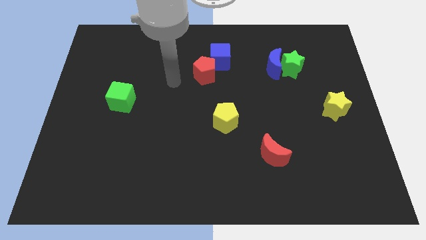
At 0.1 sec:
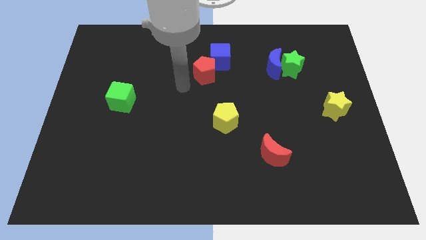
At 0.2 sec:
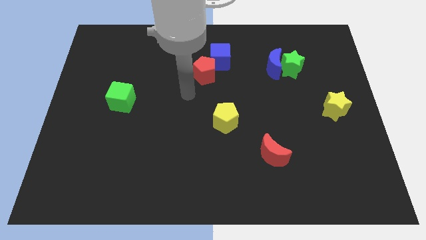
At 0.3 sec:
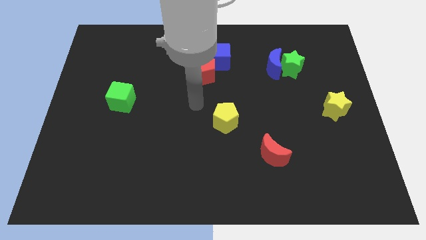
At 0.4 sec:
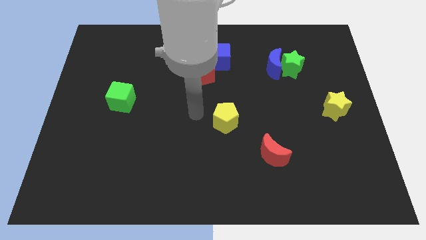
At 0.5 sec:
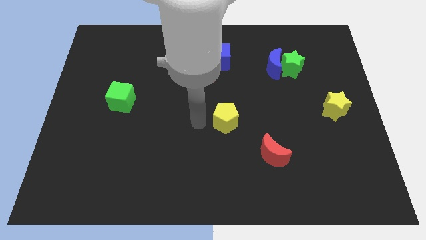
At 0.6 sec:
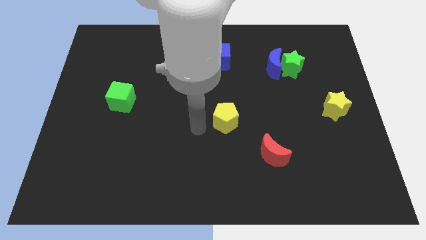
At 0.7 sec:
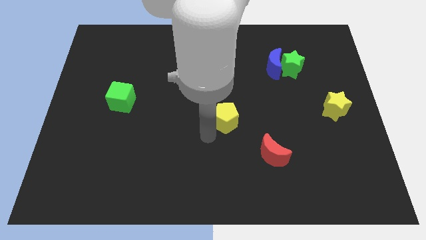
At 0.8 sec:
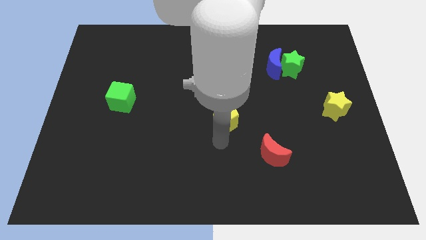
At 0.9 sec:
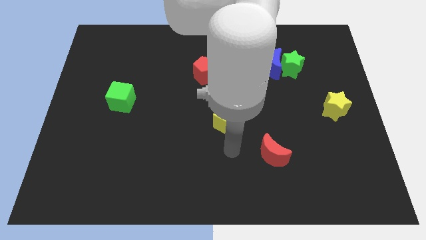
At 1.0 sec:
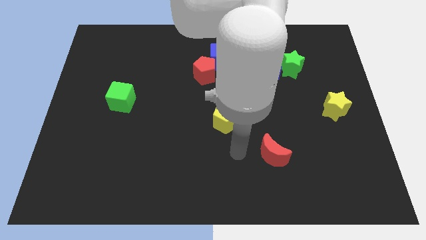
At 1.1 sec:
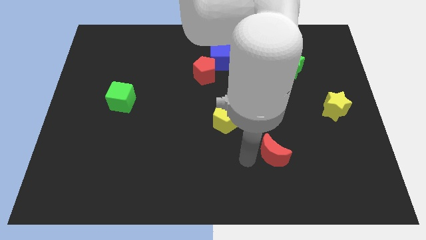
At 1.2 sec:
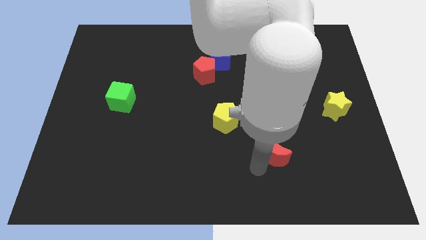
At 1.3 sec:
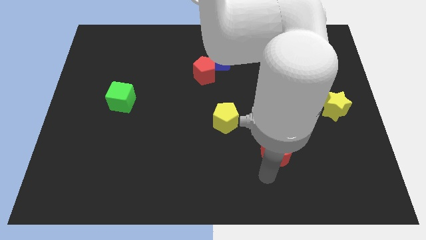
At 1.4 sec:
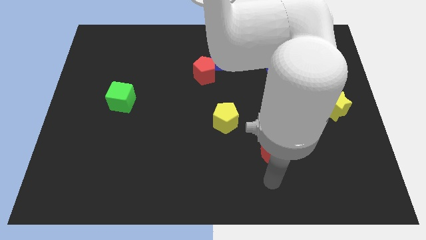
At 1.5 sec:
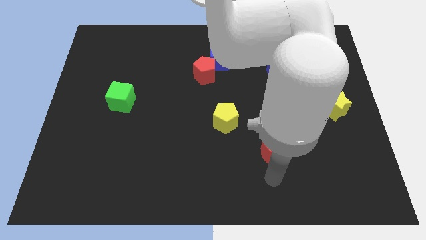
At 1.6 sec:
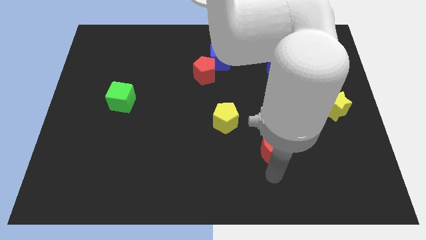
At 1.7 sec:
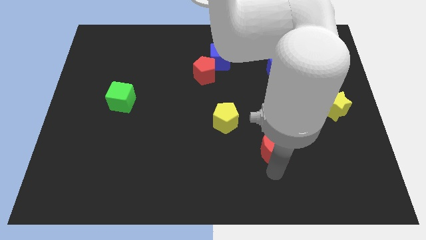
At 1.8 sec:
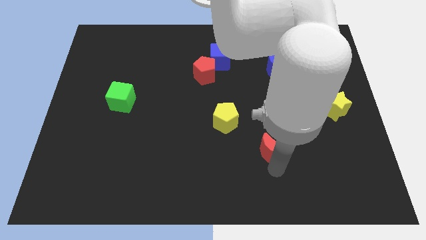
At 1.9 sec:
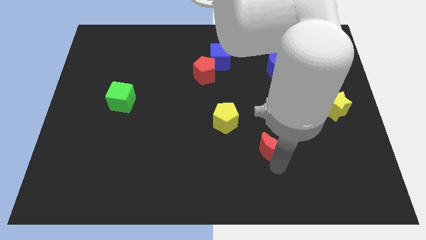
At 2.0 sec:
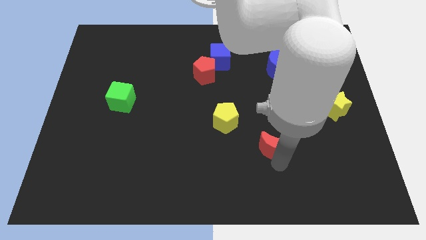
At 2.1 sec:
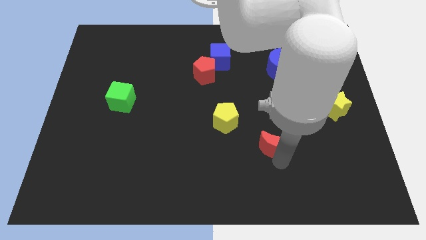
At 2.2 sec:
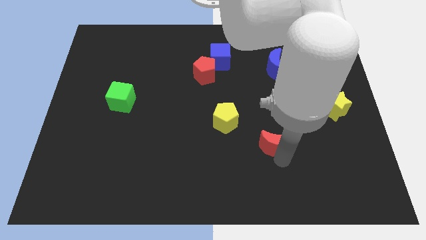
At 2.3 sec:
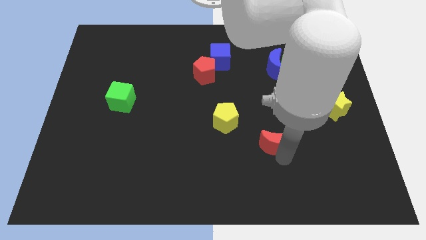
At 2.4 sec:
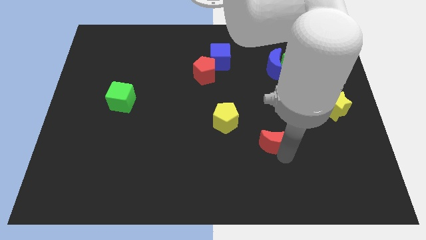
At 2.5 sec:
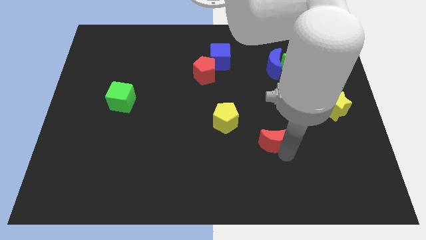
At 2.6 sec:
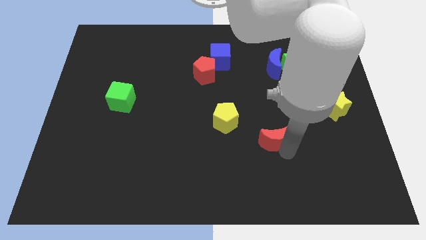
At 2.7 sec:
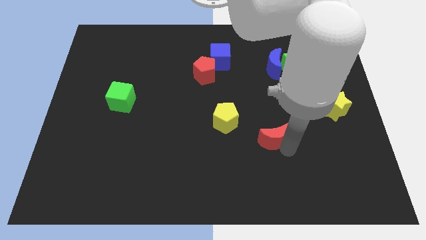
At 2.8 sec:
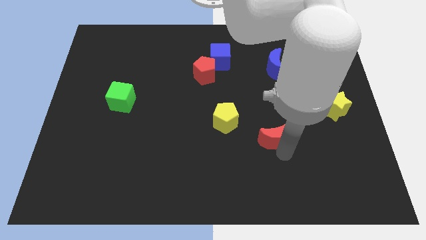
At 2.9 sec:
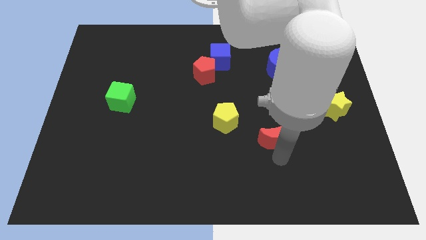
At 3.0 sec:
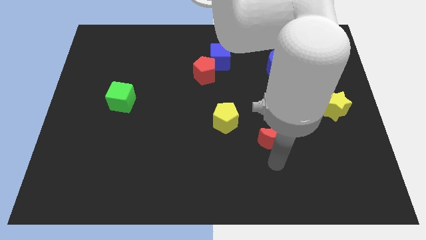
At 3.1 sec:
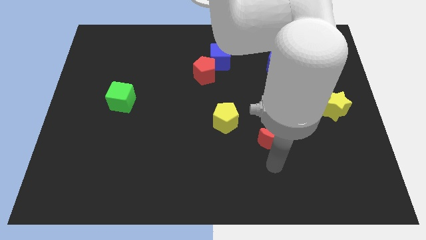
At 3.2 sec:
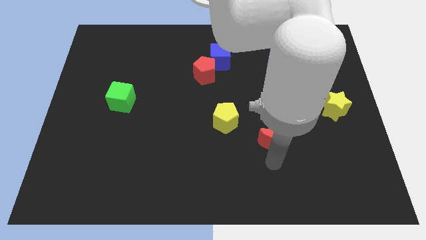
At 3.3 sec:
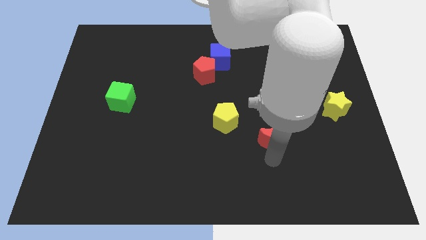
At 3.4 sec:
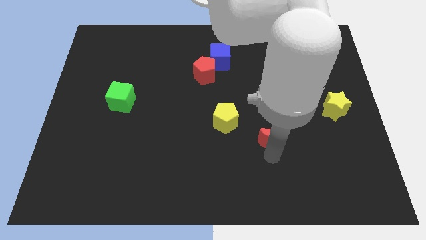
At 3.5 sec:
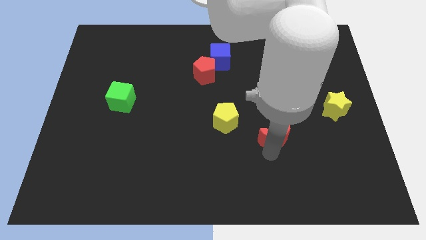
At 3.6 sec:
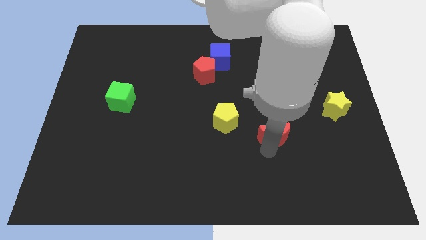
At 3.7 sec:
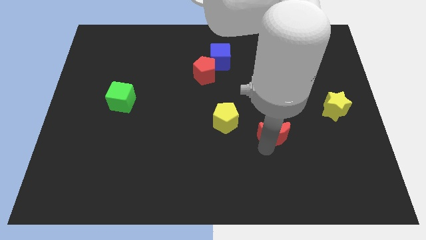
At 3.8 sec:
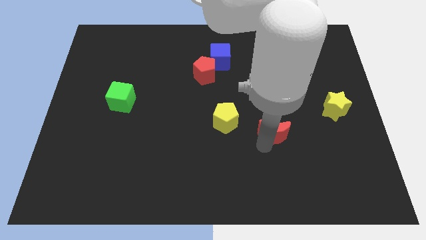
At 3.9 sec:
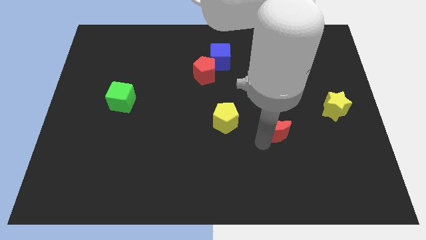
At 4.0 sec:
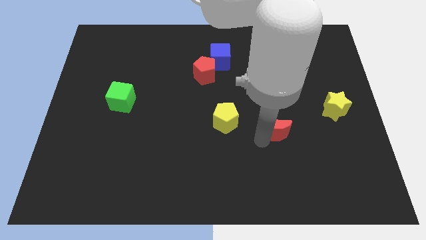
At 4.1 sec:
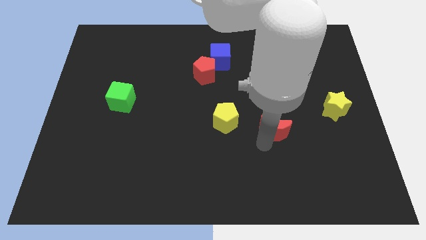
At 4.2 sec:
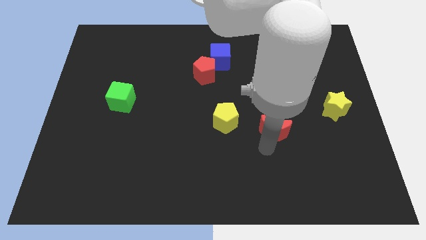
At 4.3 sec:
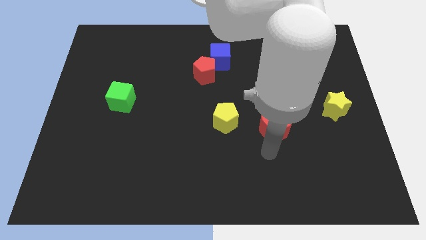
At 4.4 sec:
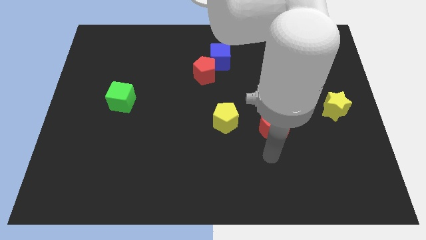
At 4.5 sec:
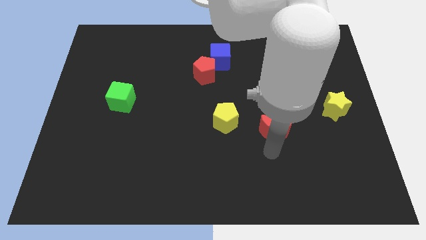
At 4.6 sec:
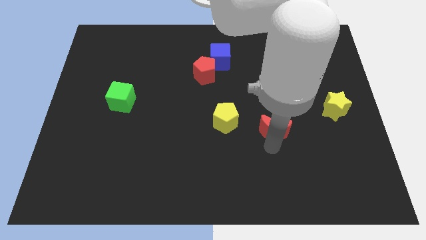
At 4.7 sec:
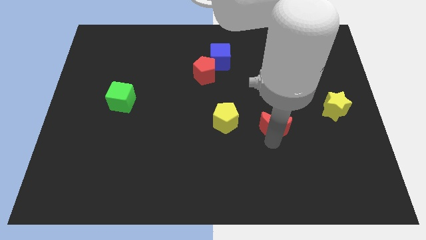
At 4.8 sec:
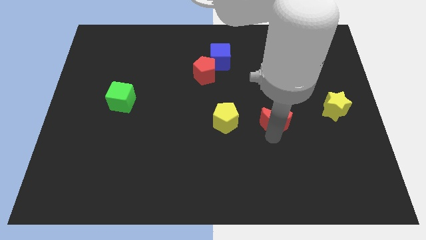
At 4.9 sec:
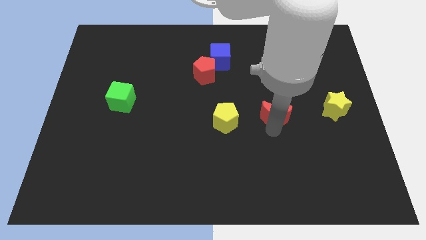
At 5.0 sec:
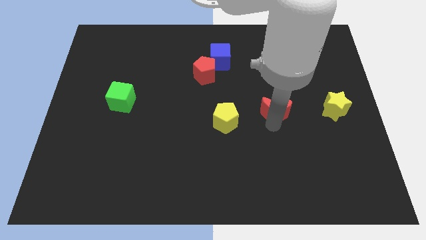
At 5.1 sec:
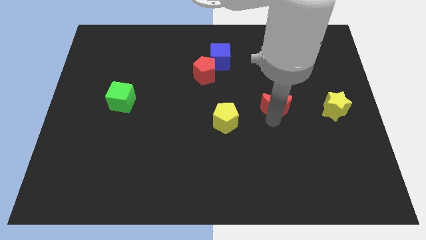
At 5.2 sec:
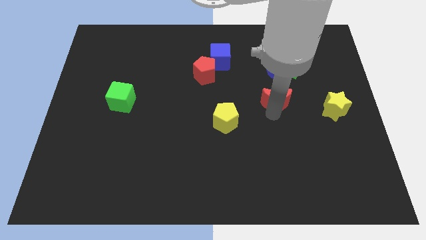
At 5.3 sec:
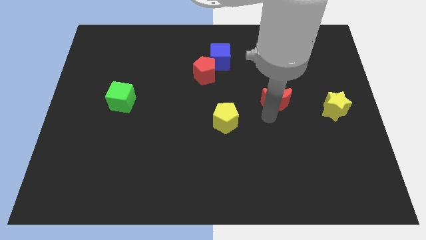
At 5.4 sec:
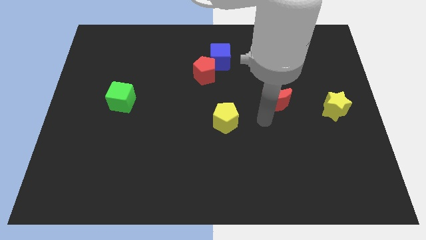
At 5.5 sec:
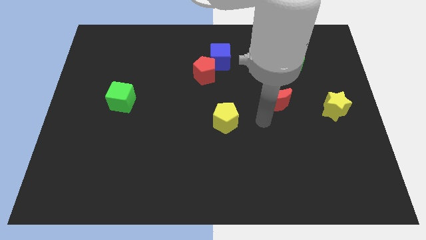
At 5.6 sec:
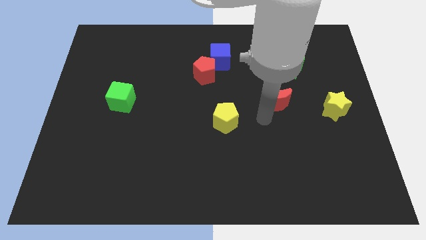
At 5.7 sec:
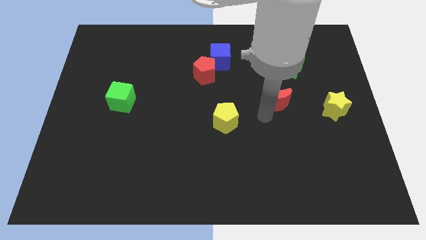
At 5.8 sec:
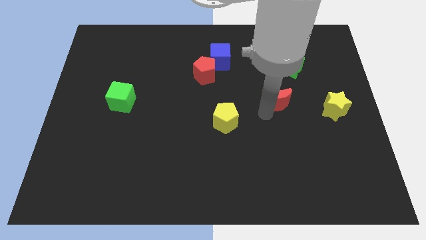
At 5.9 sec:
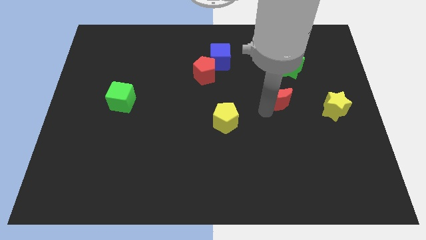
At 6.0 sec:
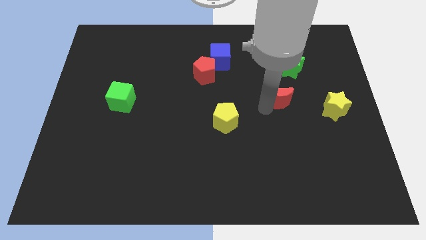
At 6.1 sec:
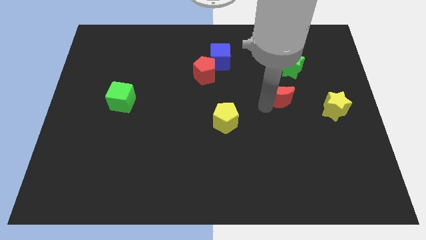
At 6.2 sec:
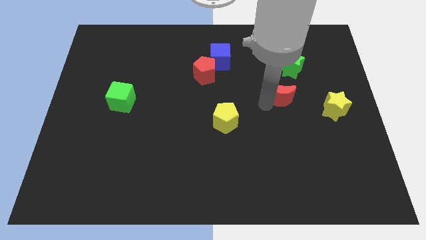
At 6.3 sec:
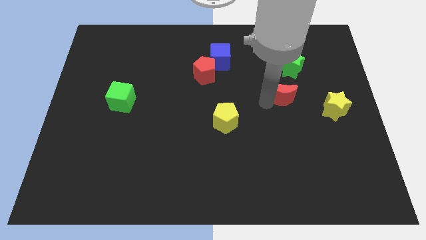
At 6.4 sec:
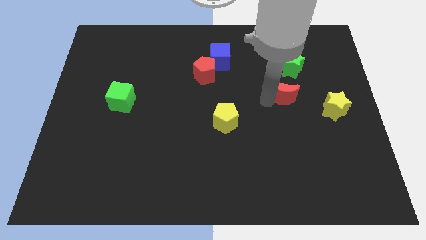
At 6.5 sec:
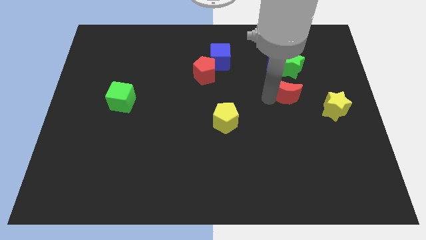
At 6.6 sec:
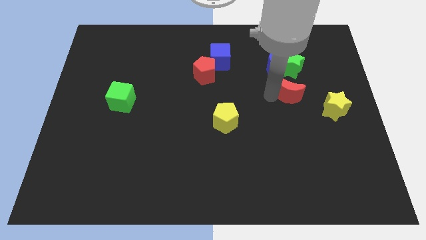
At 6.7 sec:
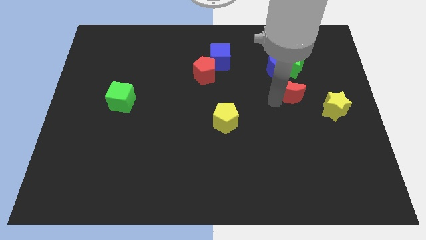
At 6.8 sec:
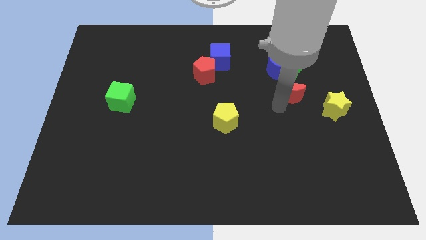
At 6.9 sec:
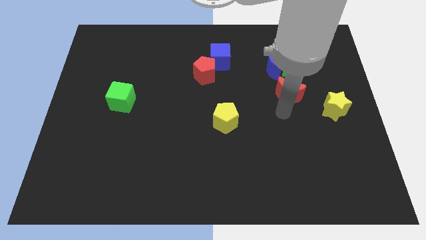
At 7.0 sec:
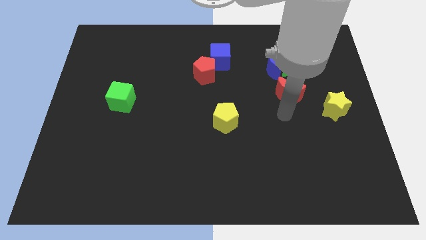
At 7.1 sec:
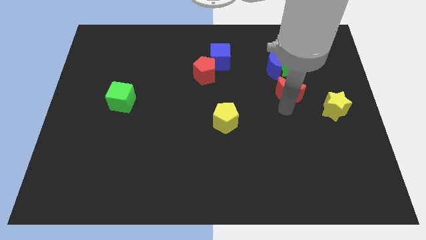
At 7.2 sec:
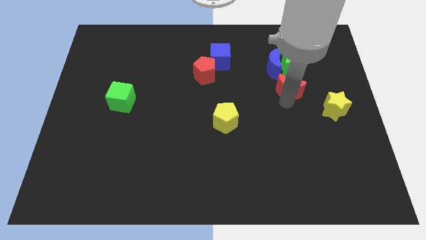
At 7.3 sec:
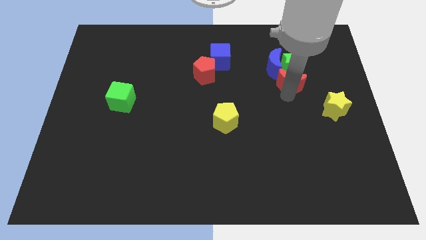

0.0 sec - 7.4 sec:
slide the red moon close to the green star
